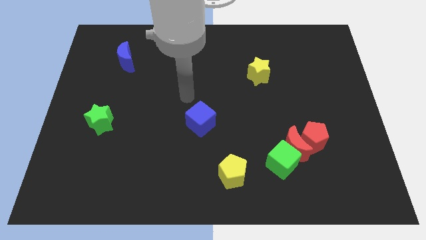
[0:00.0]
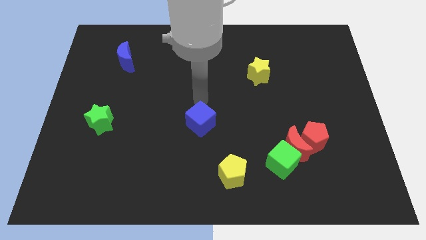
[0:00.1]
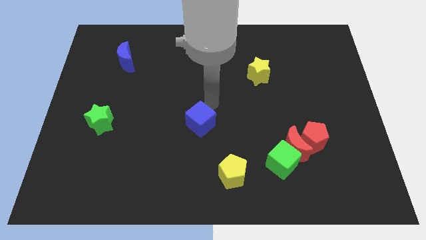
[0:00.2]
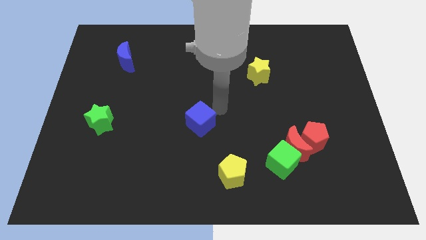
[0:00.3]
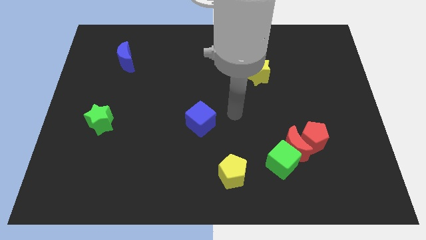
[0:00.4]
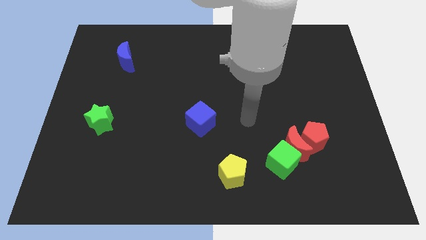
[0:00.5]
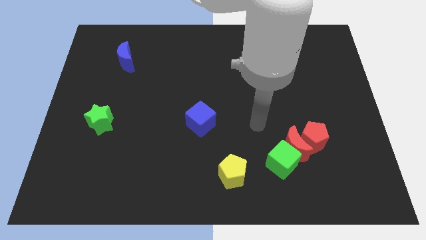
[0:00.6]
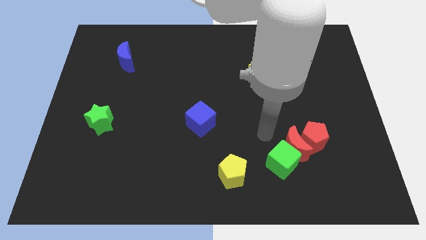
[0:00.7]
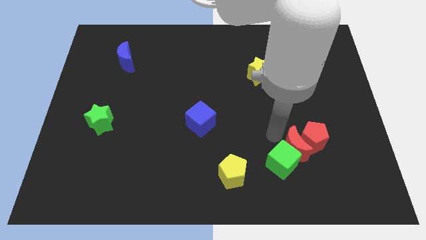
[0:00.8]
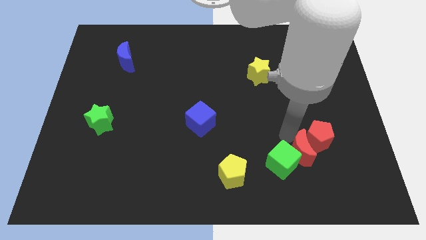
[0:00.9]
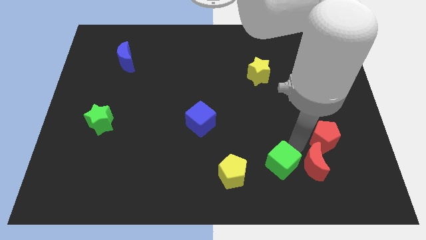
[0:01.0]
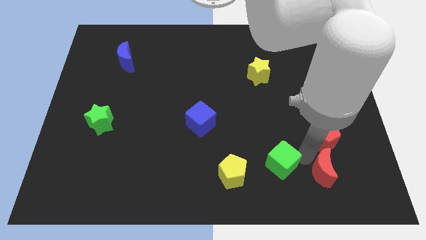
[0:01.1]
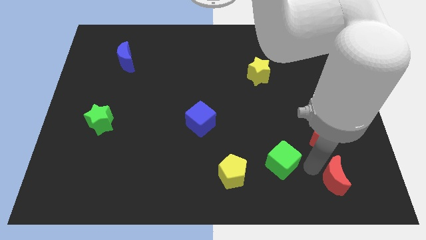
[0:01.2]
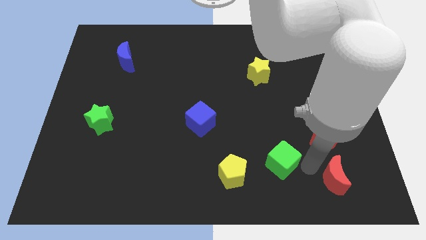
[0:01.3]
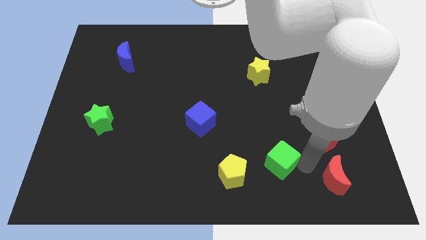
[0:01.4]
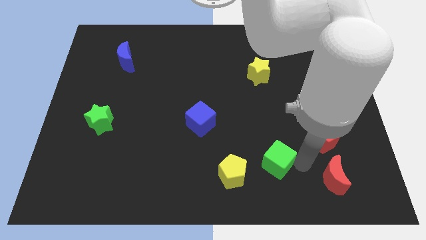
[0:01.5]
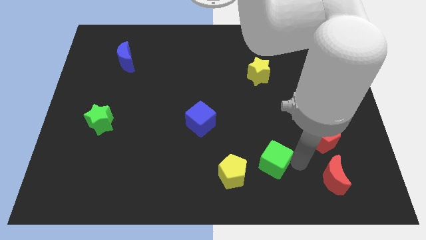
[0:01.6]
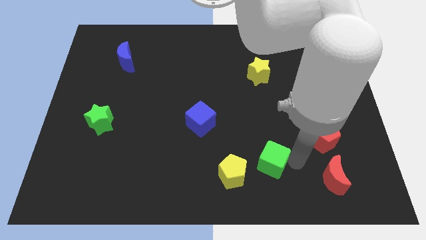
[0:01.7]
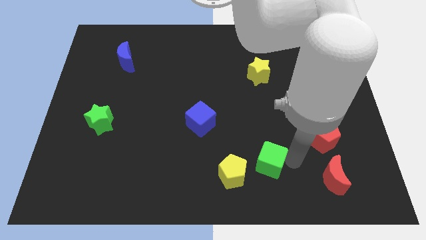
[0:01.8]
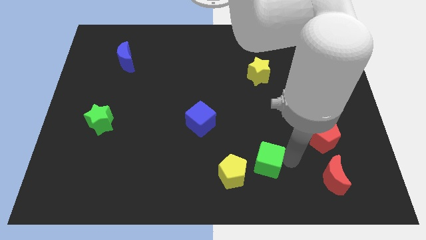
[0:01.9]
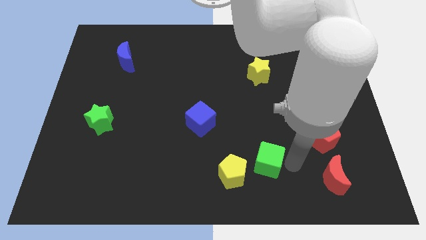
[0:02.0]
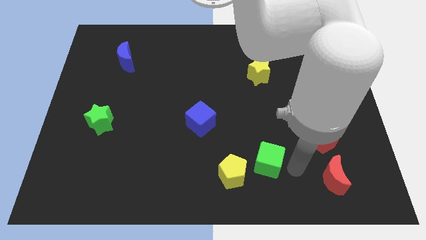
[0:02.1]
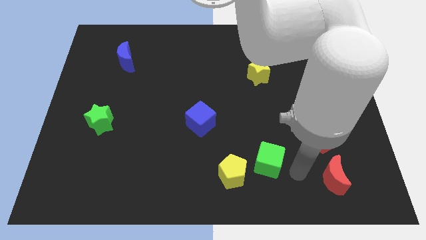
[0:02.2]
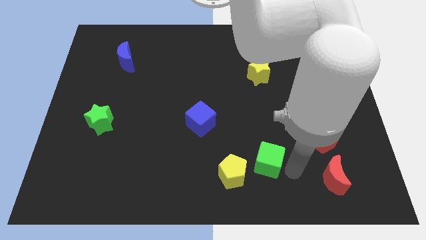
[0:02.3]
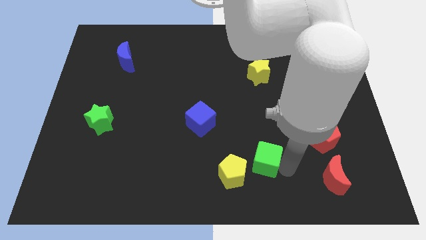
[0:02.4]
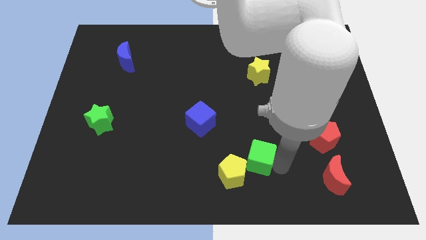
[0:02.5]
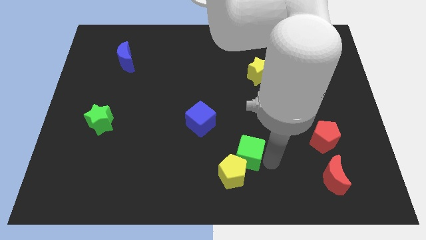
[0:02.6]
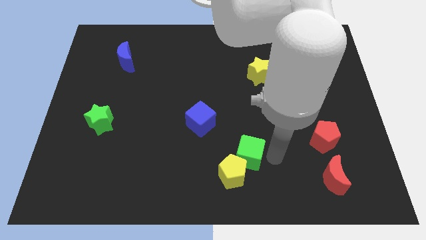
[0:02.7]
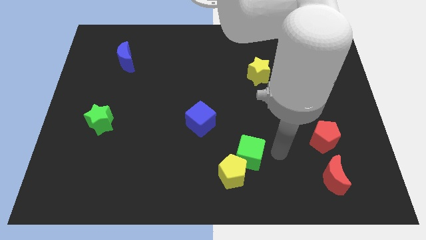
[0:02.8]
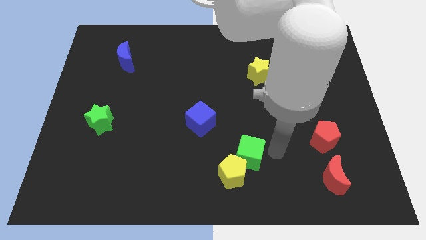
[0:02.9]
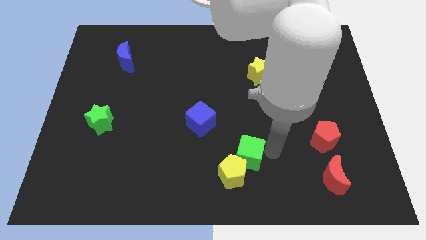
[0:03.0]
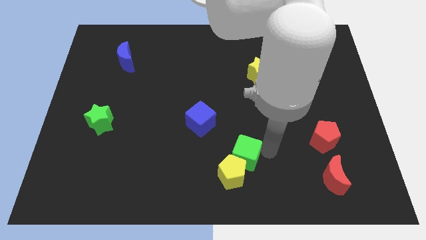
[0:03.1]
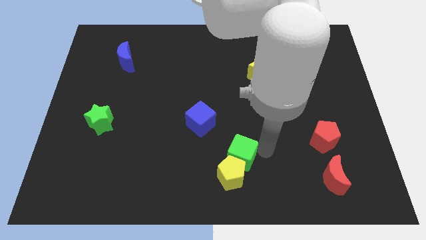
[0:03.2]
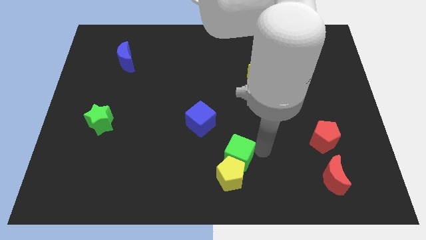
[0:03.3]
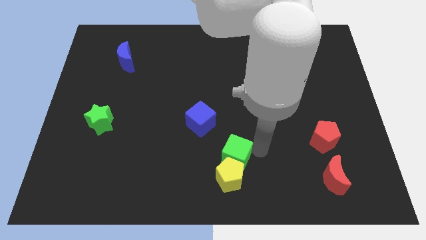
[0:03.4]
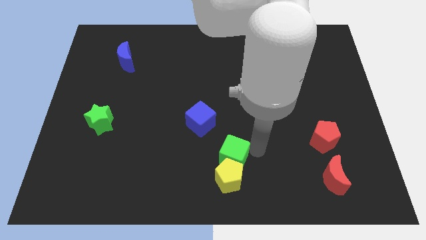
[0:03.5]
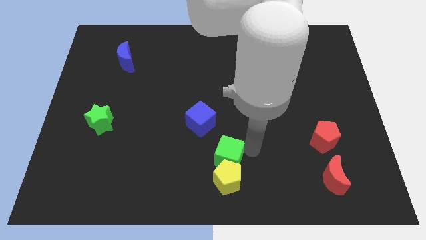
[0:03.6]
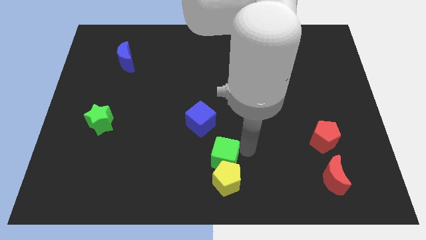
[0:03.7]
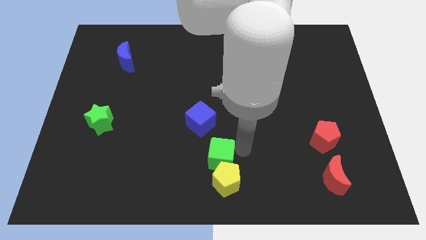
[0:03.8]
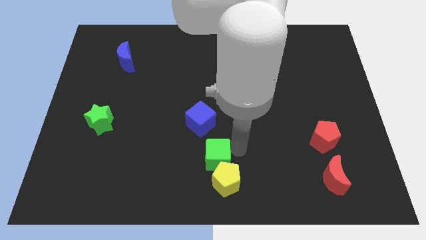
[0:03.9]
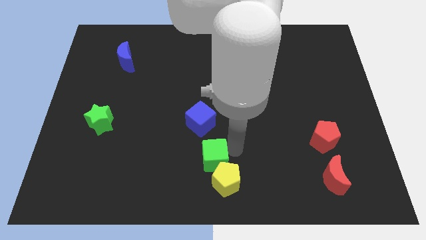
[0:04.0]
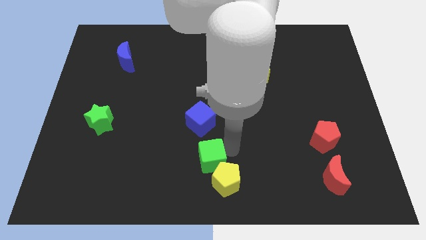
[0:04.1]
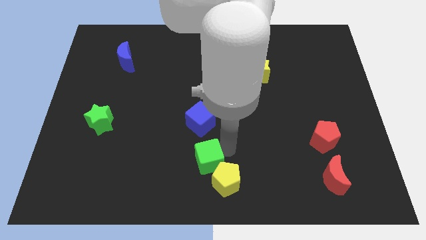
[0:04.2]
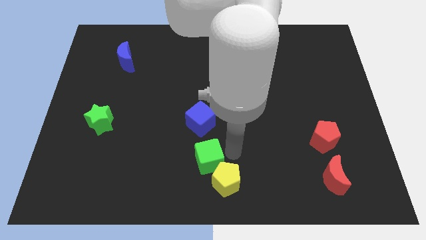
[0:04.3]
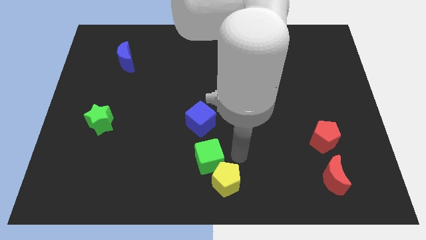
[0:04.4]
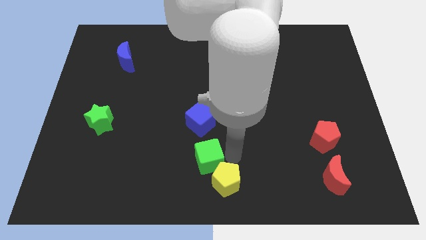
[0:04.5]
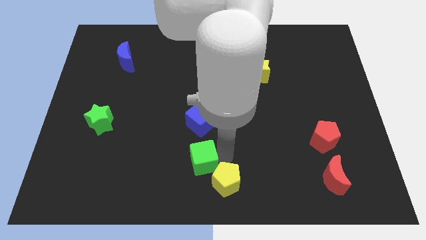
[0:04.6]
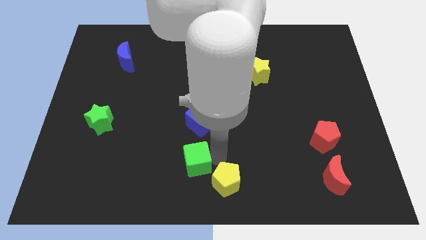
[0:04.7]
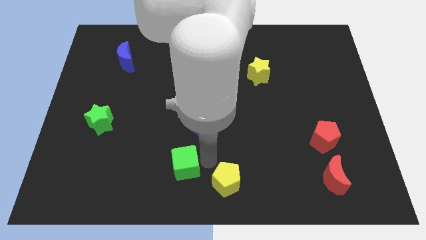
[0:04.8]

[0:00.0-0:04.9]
move the green cube to the left

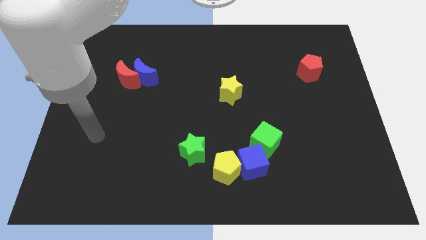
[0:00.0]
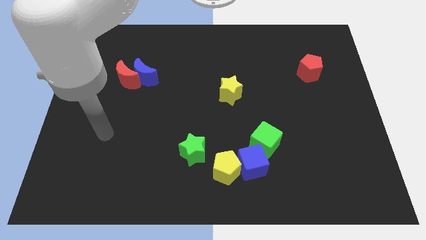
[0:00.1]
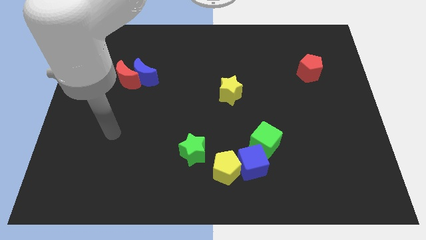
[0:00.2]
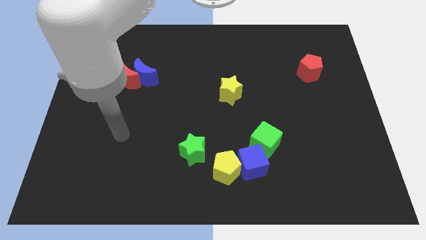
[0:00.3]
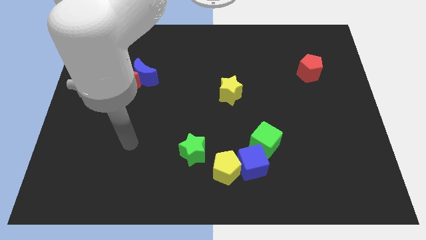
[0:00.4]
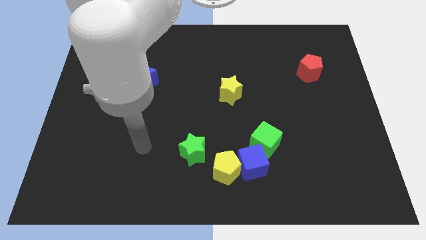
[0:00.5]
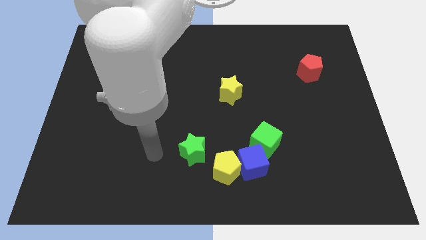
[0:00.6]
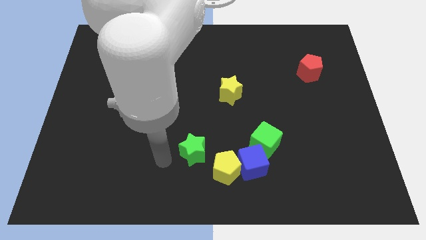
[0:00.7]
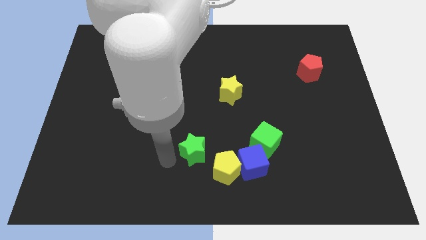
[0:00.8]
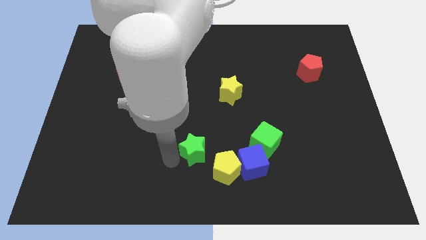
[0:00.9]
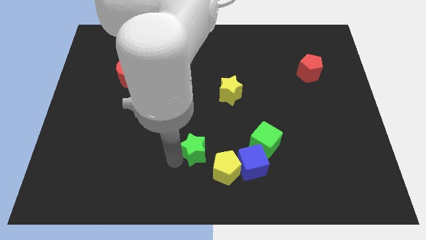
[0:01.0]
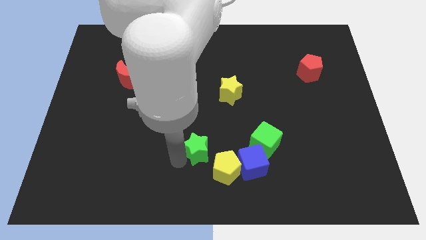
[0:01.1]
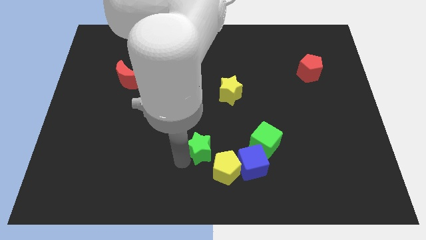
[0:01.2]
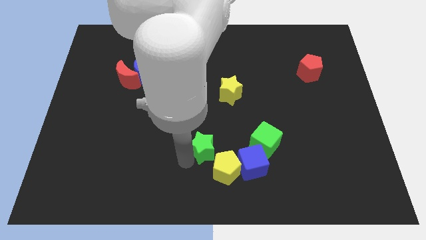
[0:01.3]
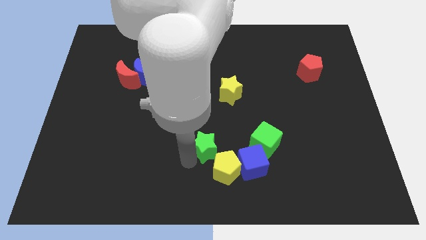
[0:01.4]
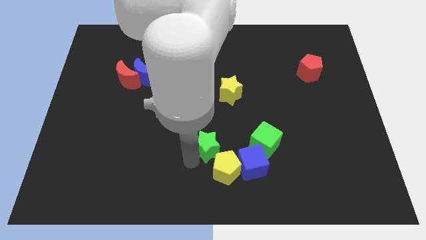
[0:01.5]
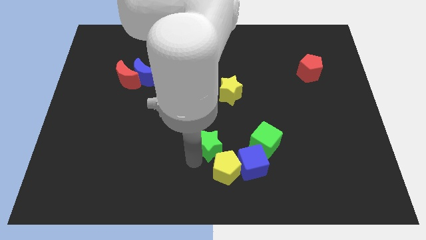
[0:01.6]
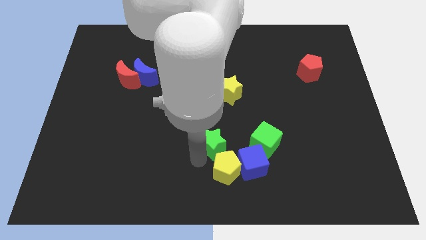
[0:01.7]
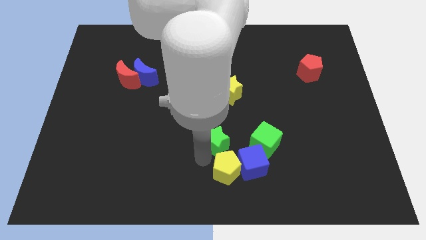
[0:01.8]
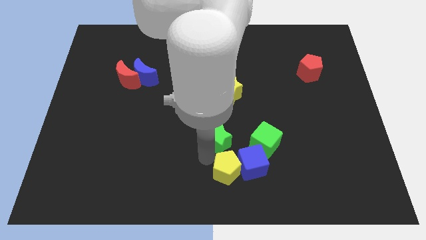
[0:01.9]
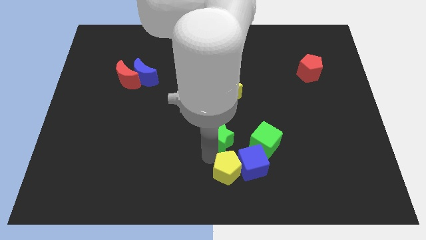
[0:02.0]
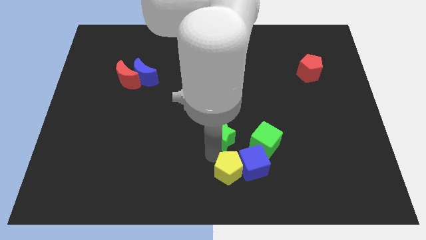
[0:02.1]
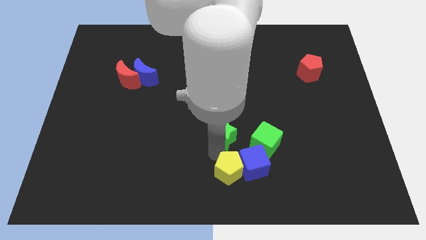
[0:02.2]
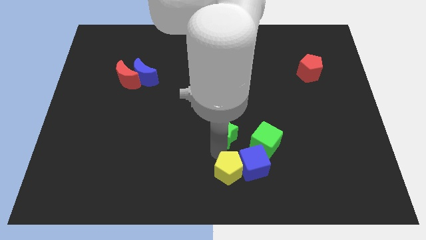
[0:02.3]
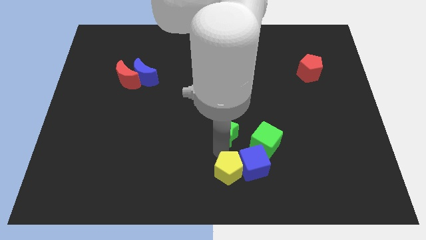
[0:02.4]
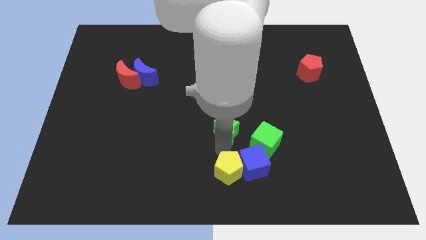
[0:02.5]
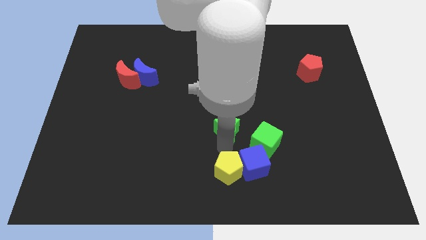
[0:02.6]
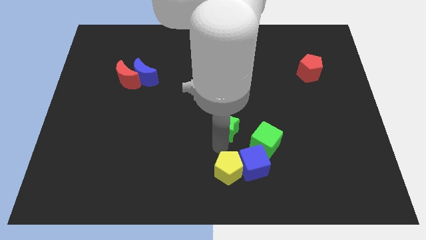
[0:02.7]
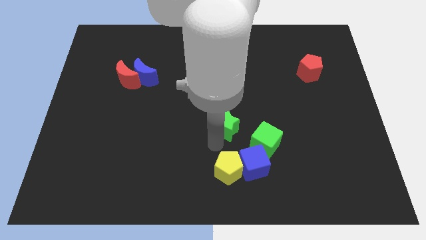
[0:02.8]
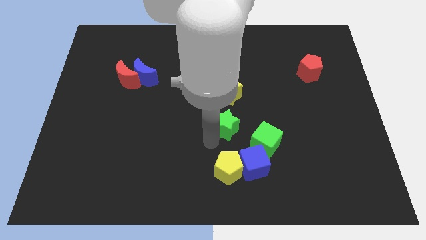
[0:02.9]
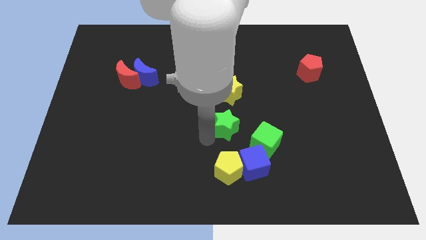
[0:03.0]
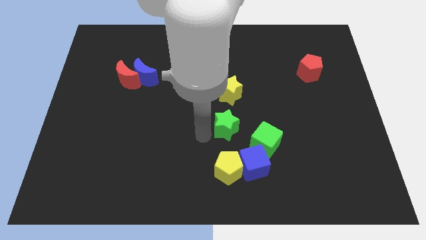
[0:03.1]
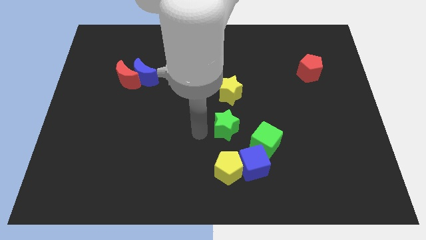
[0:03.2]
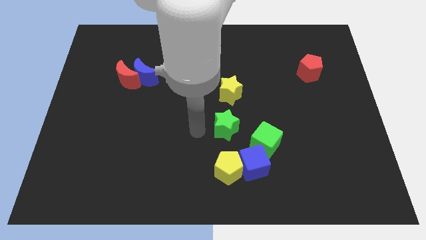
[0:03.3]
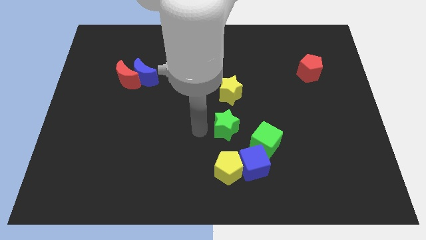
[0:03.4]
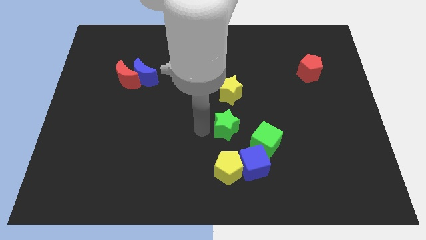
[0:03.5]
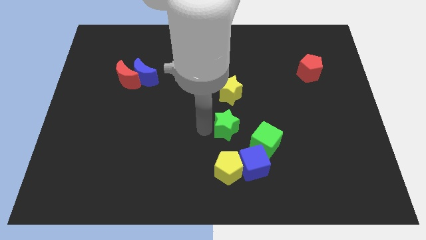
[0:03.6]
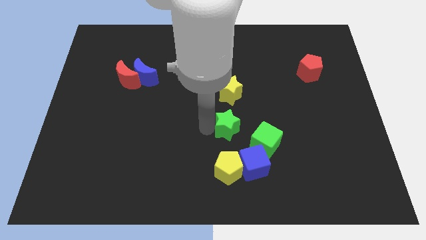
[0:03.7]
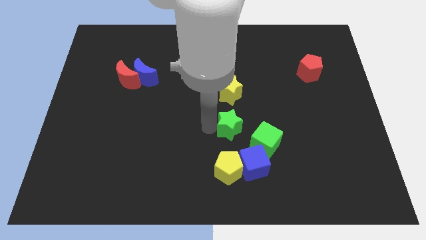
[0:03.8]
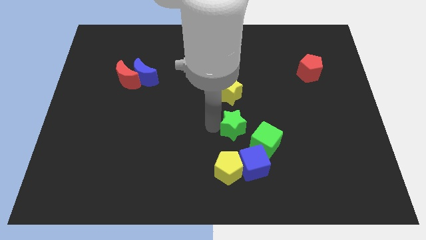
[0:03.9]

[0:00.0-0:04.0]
slide the green star a bit right
